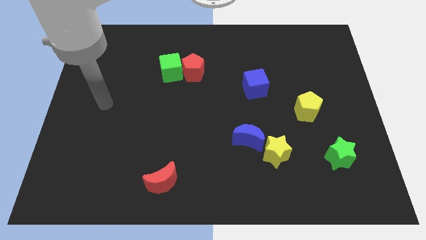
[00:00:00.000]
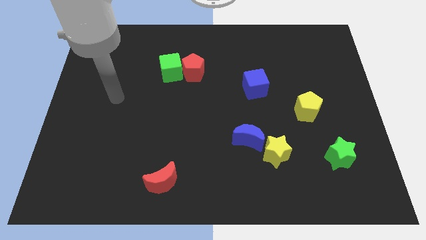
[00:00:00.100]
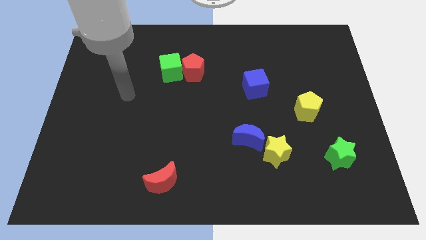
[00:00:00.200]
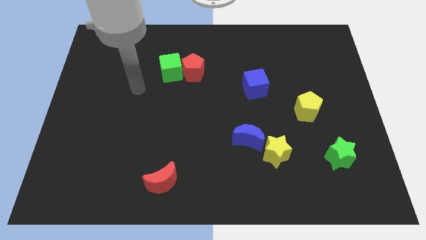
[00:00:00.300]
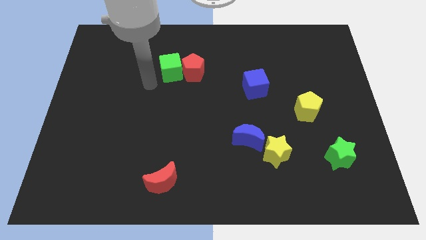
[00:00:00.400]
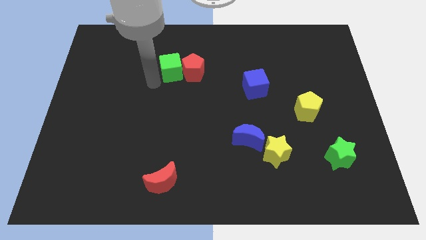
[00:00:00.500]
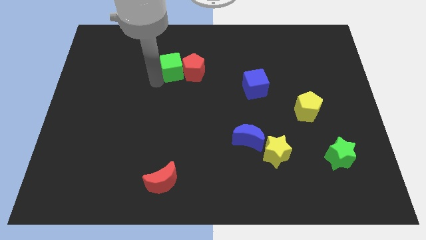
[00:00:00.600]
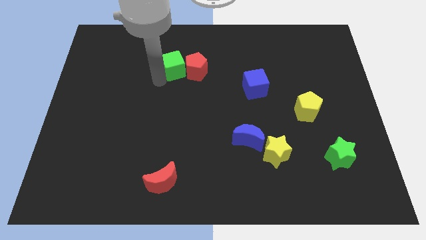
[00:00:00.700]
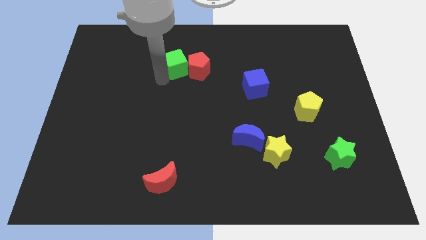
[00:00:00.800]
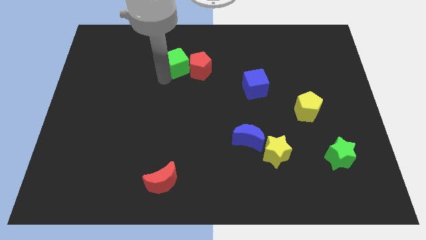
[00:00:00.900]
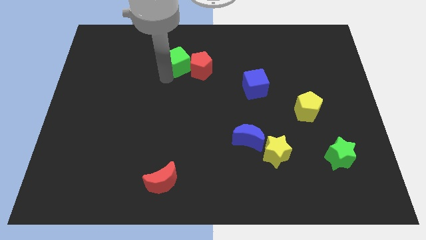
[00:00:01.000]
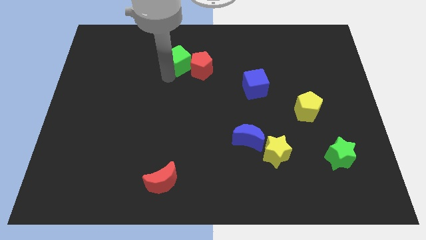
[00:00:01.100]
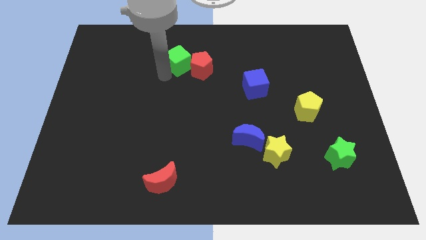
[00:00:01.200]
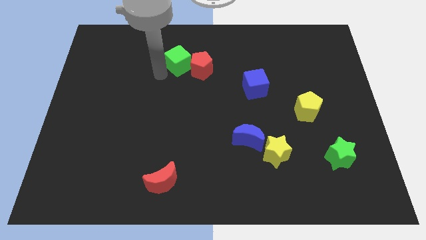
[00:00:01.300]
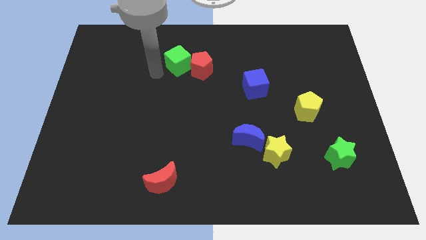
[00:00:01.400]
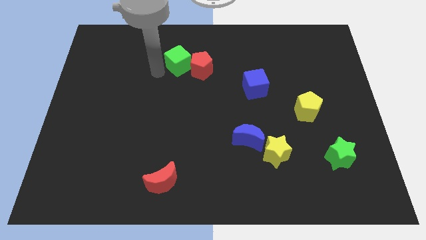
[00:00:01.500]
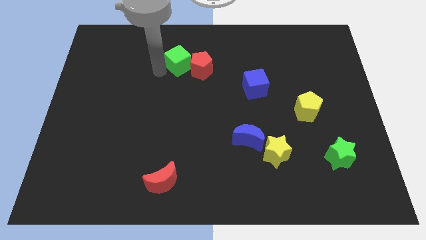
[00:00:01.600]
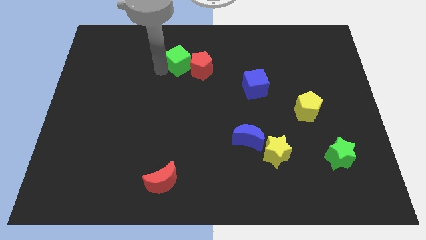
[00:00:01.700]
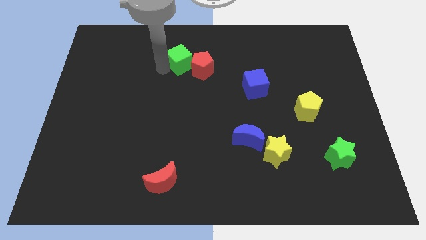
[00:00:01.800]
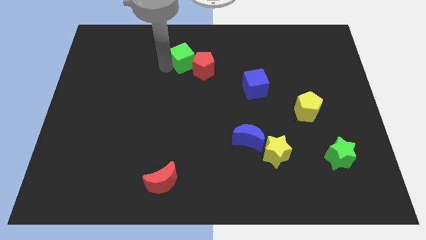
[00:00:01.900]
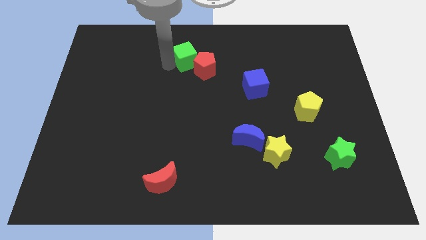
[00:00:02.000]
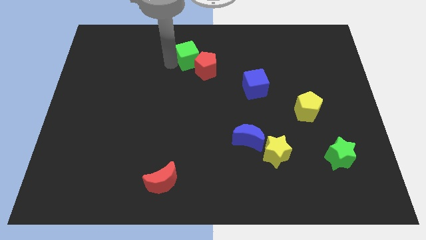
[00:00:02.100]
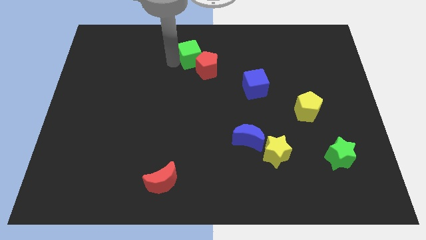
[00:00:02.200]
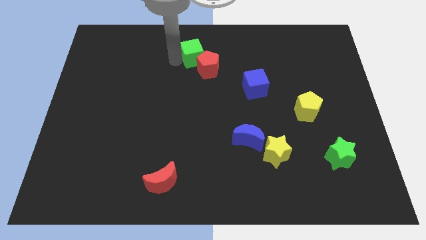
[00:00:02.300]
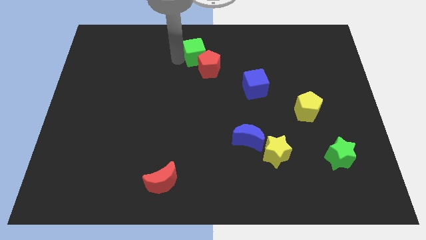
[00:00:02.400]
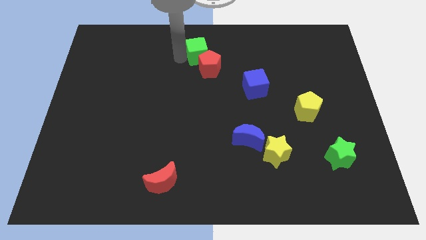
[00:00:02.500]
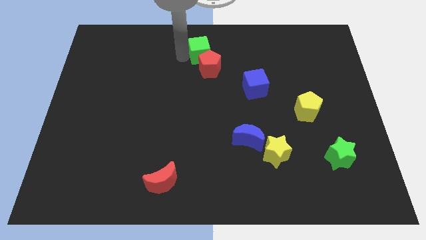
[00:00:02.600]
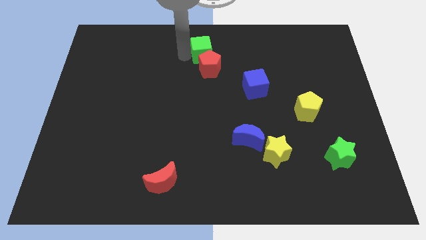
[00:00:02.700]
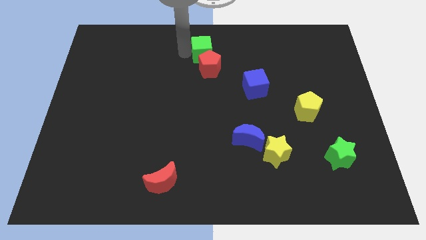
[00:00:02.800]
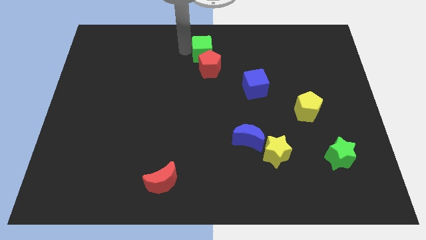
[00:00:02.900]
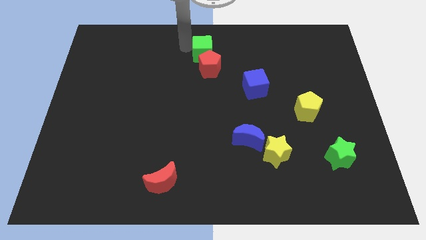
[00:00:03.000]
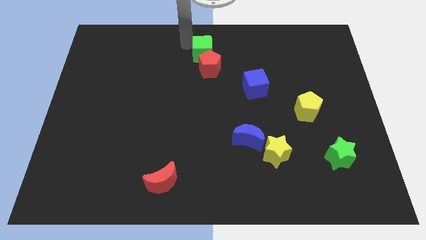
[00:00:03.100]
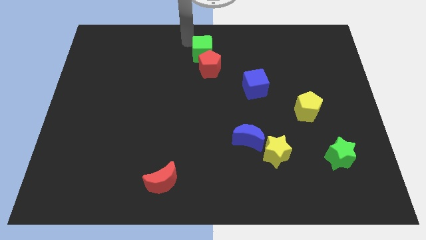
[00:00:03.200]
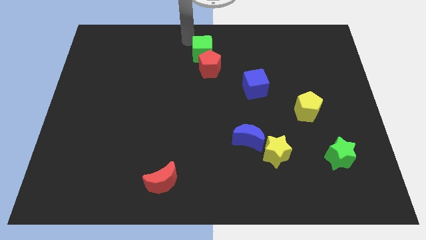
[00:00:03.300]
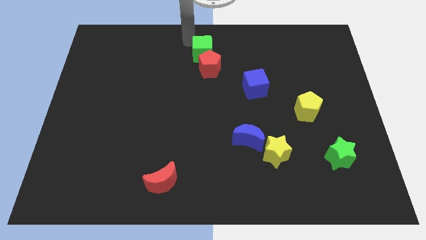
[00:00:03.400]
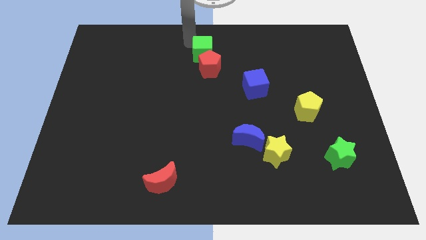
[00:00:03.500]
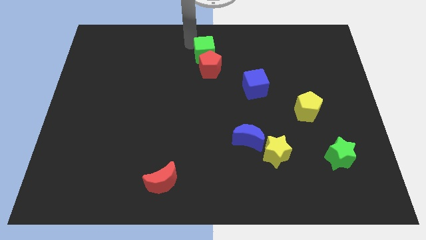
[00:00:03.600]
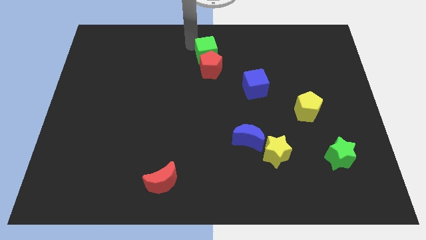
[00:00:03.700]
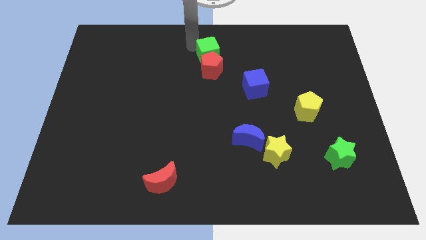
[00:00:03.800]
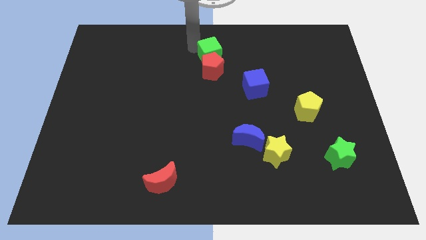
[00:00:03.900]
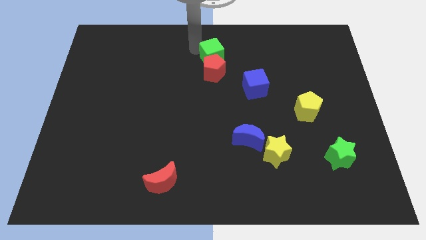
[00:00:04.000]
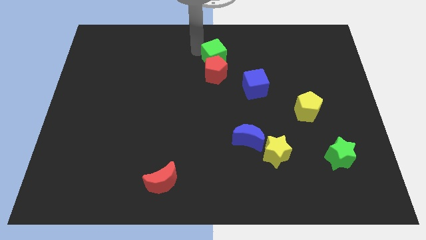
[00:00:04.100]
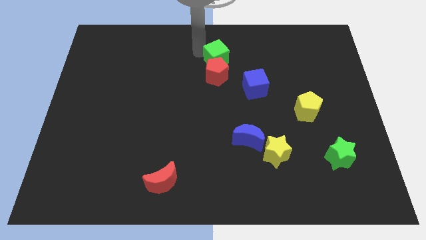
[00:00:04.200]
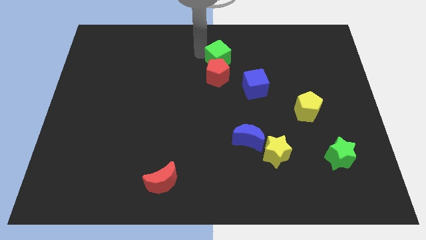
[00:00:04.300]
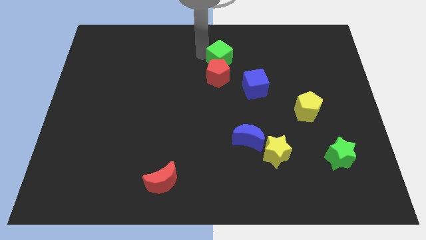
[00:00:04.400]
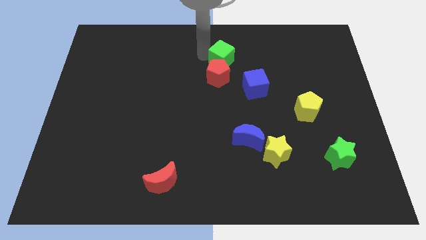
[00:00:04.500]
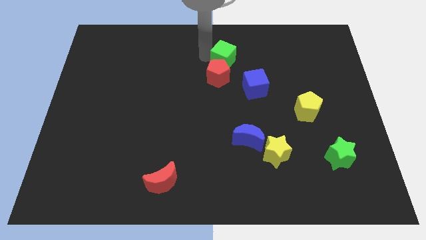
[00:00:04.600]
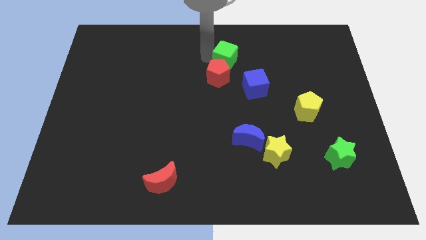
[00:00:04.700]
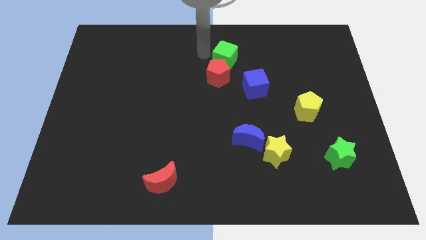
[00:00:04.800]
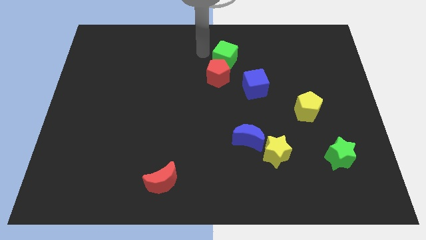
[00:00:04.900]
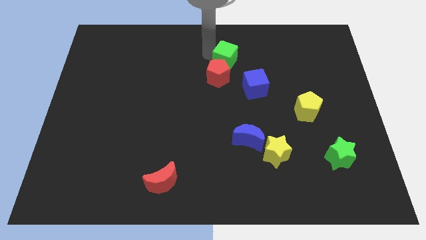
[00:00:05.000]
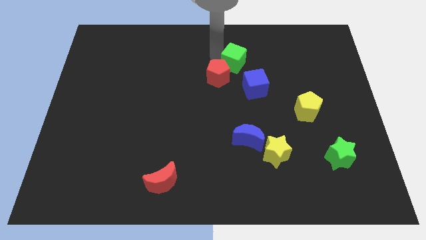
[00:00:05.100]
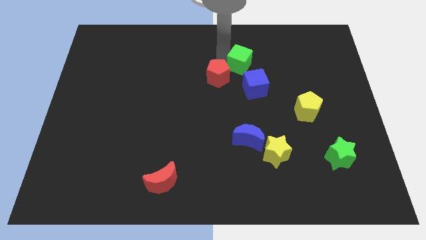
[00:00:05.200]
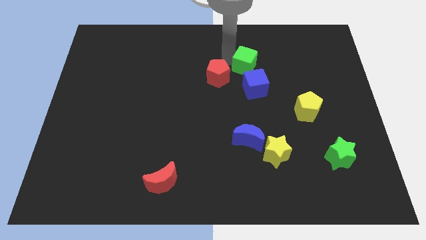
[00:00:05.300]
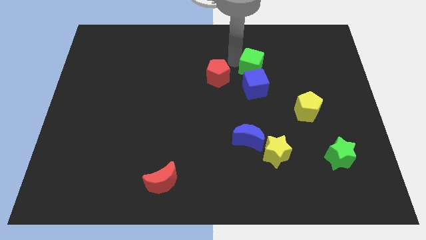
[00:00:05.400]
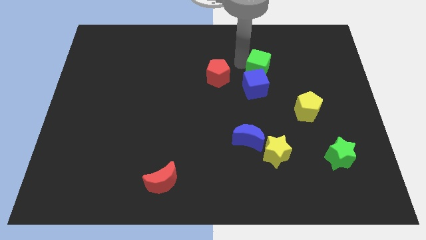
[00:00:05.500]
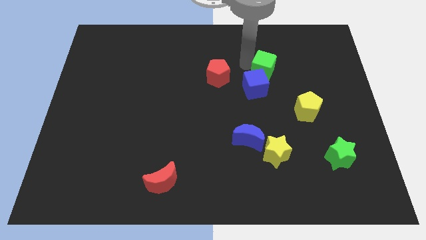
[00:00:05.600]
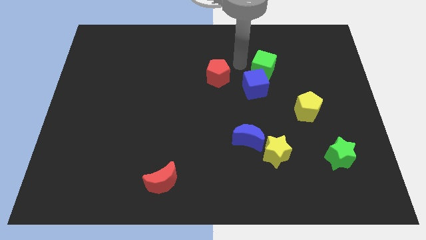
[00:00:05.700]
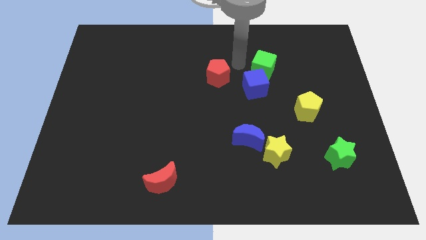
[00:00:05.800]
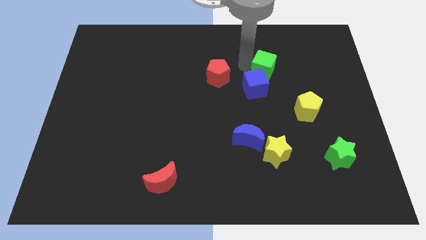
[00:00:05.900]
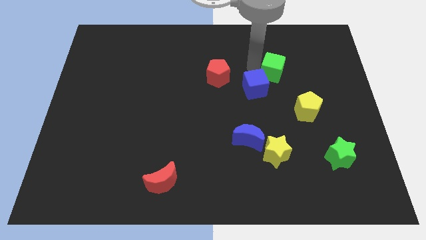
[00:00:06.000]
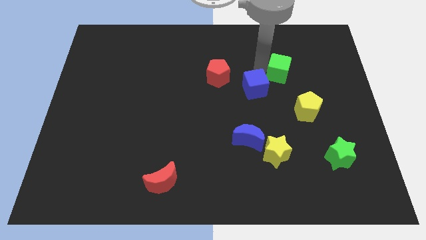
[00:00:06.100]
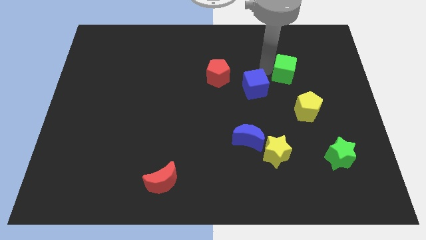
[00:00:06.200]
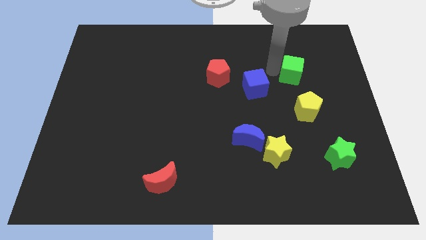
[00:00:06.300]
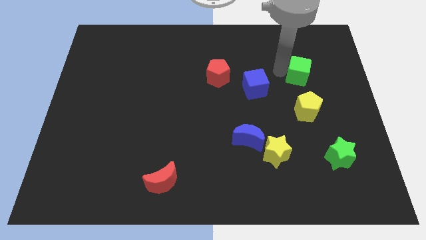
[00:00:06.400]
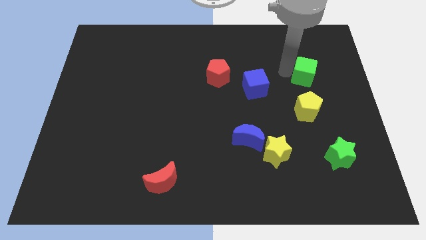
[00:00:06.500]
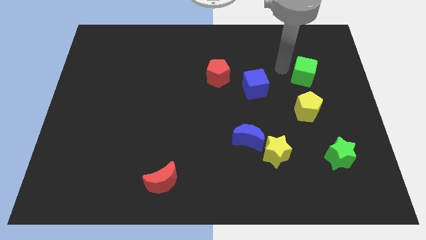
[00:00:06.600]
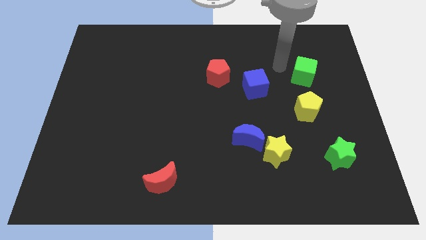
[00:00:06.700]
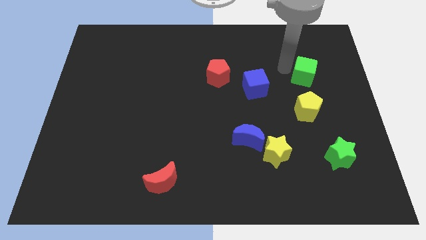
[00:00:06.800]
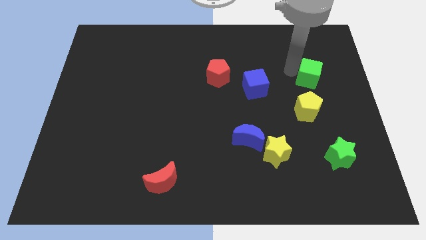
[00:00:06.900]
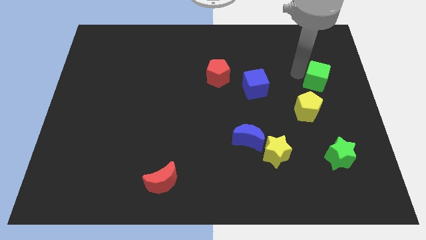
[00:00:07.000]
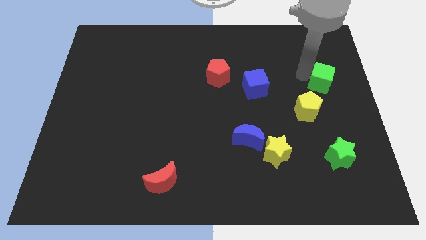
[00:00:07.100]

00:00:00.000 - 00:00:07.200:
put the green cube to the center right
